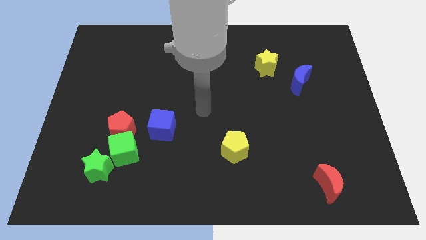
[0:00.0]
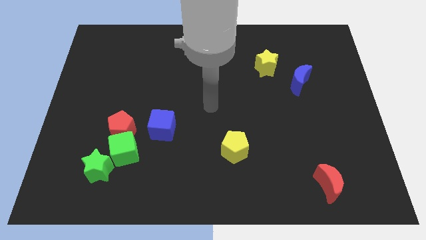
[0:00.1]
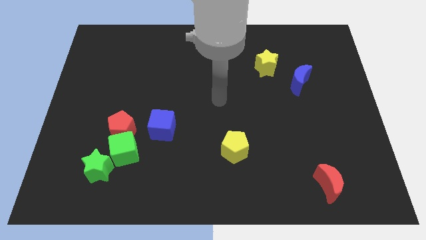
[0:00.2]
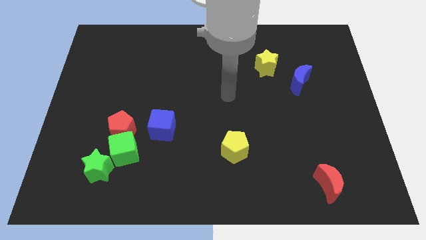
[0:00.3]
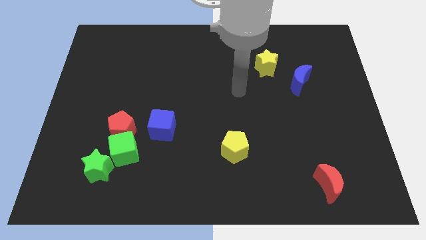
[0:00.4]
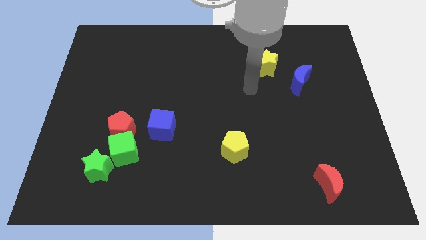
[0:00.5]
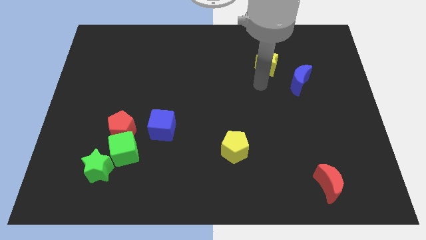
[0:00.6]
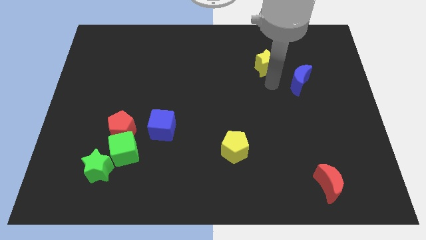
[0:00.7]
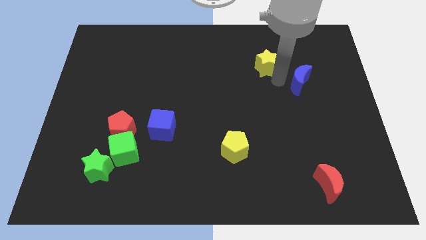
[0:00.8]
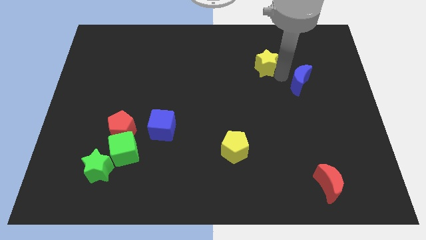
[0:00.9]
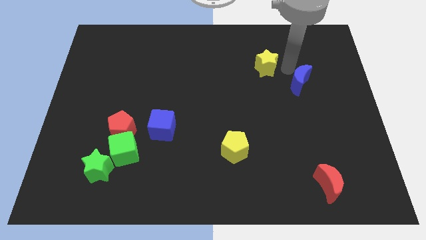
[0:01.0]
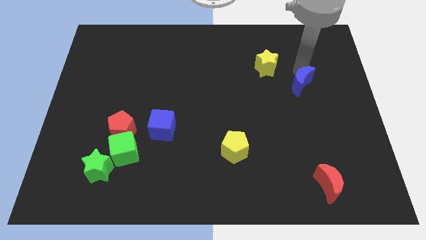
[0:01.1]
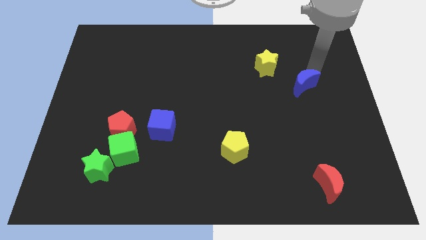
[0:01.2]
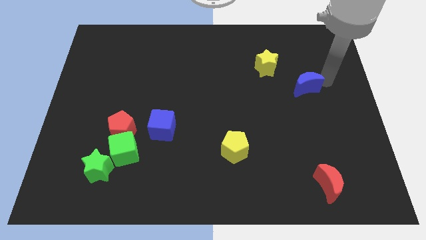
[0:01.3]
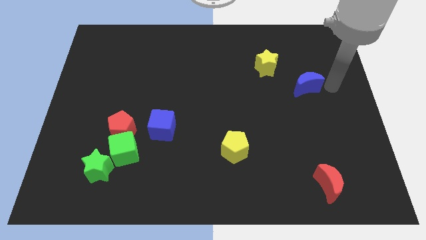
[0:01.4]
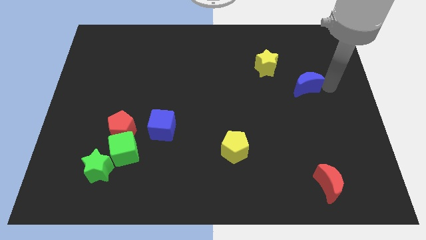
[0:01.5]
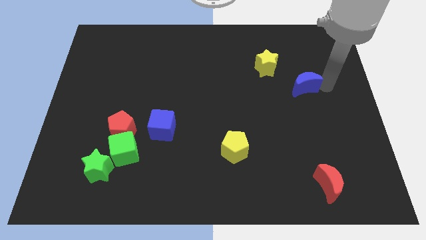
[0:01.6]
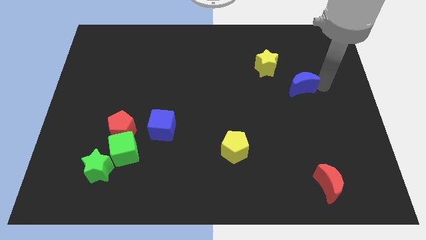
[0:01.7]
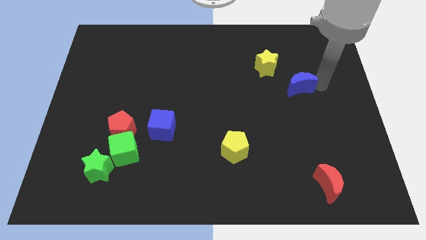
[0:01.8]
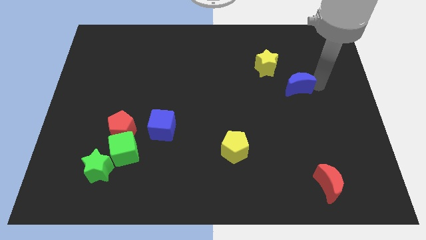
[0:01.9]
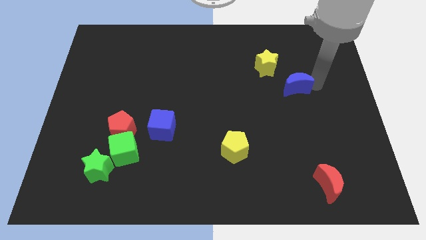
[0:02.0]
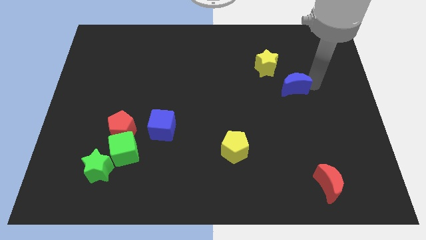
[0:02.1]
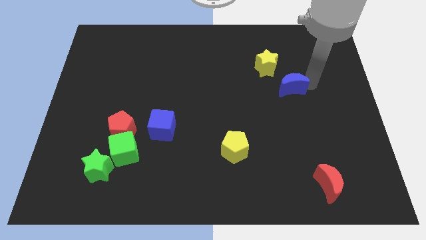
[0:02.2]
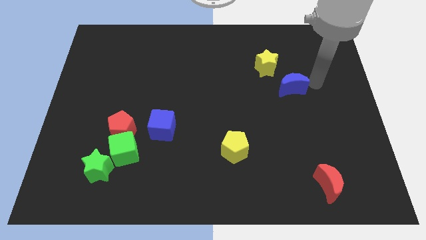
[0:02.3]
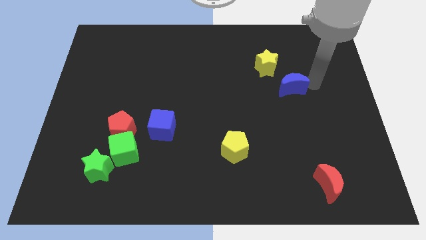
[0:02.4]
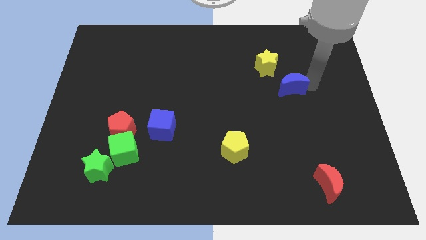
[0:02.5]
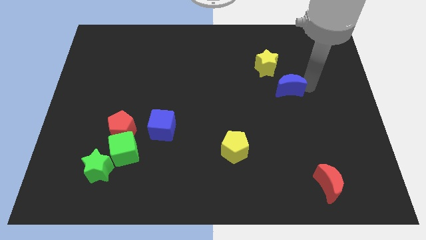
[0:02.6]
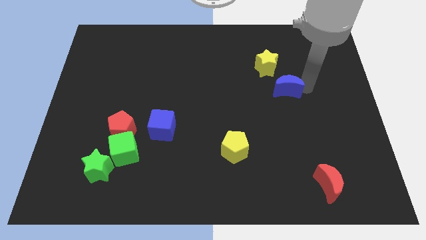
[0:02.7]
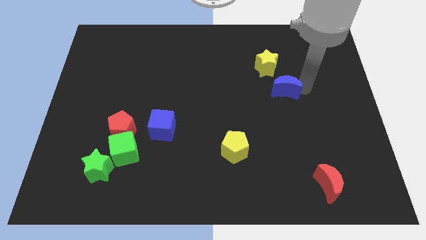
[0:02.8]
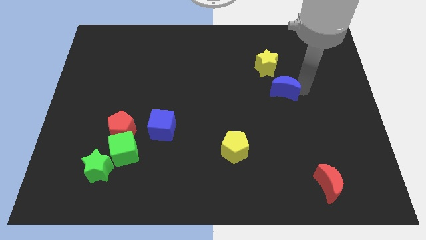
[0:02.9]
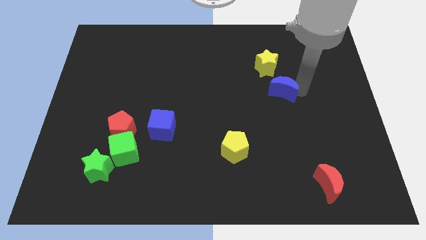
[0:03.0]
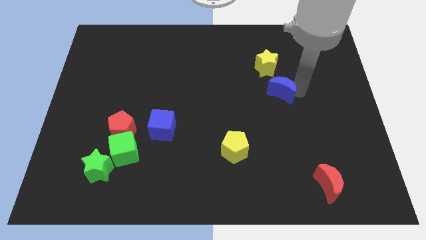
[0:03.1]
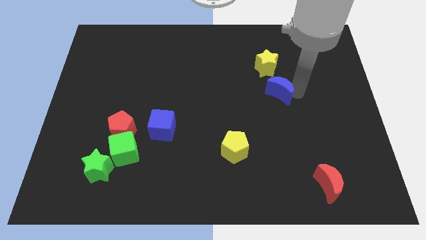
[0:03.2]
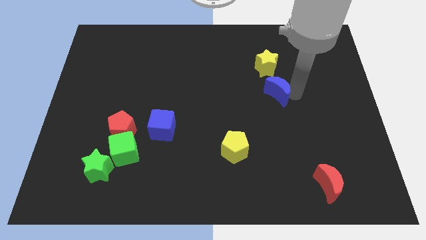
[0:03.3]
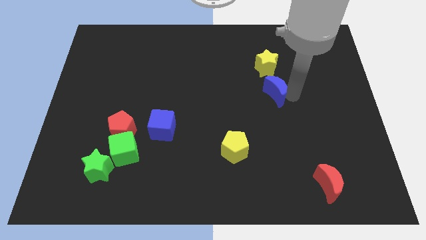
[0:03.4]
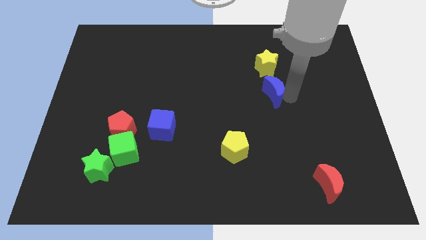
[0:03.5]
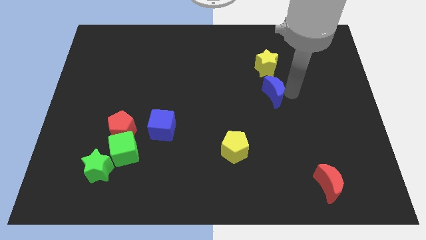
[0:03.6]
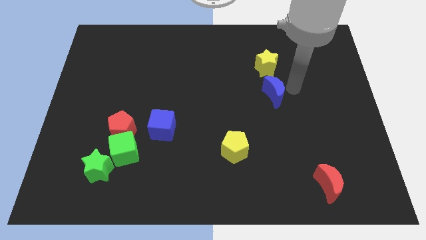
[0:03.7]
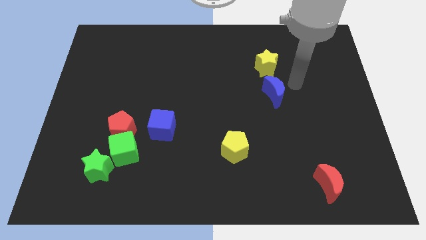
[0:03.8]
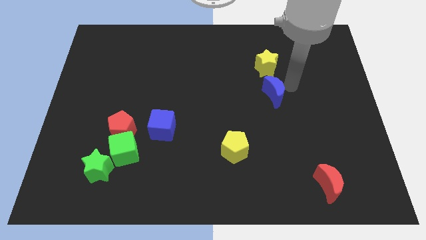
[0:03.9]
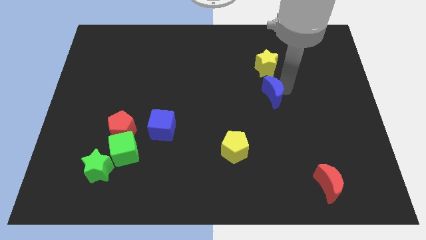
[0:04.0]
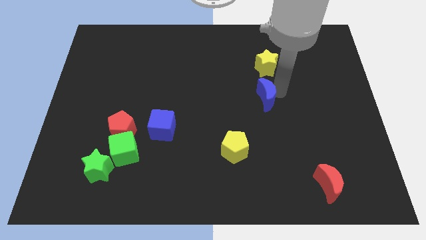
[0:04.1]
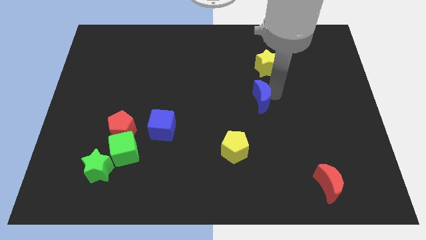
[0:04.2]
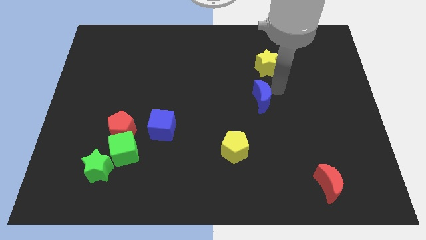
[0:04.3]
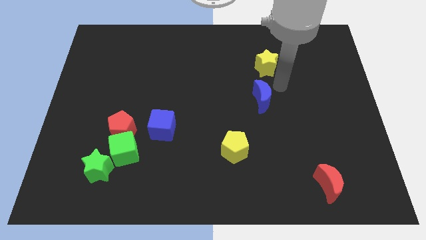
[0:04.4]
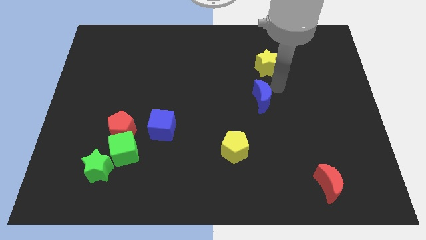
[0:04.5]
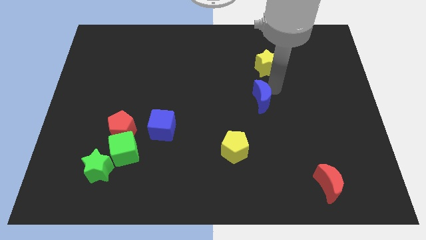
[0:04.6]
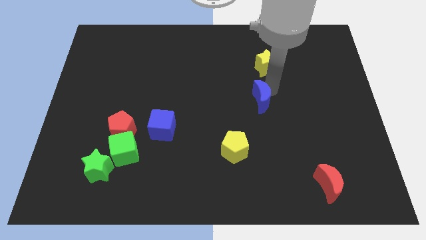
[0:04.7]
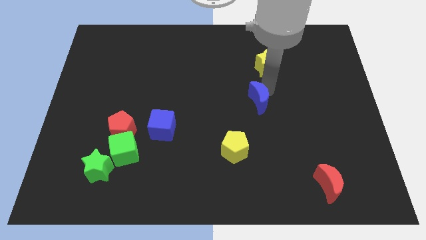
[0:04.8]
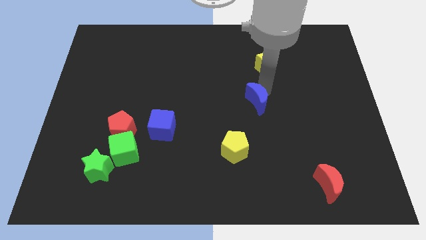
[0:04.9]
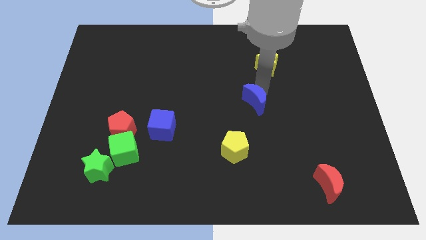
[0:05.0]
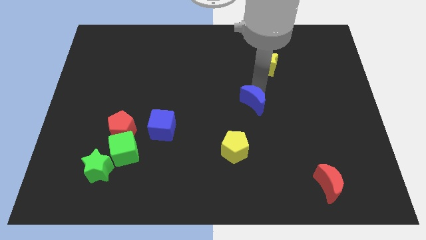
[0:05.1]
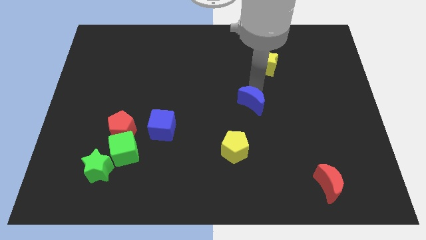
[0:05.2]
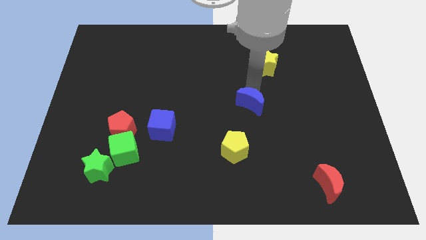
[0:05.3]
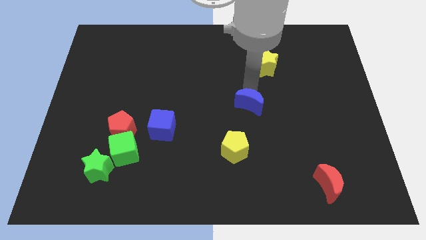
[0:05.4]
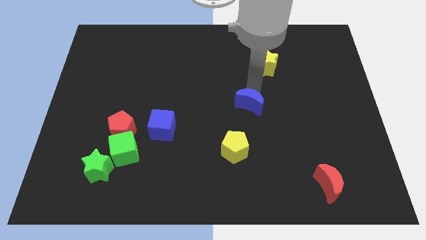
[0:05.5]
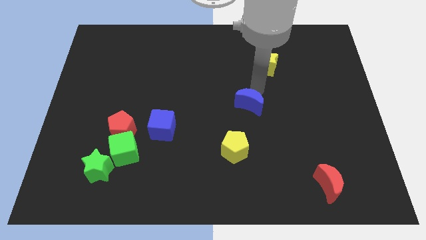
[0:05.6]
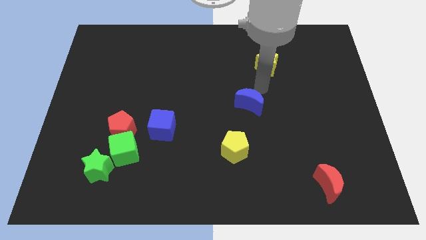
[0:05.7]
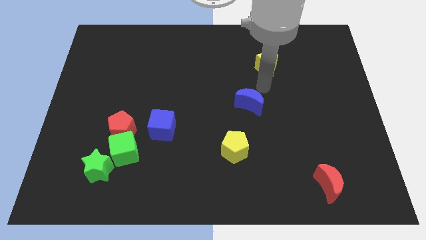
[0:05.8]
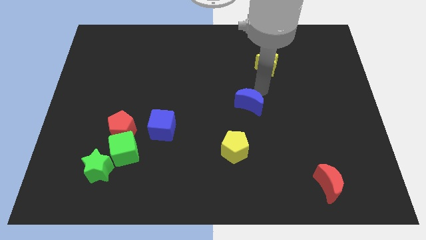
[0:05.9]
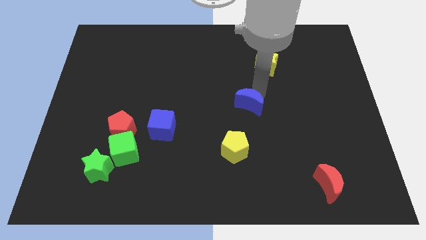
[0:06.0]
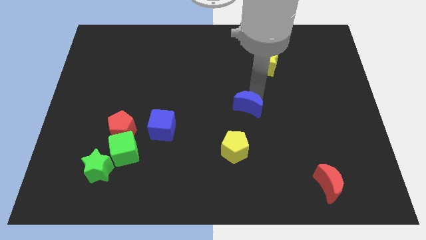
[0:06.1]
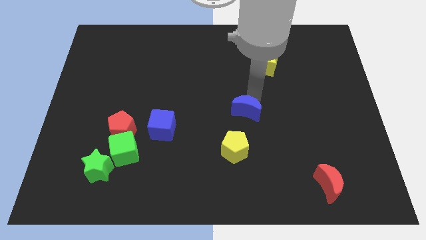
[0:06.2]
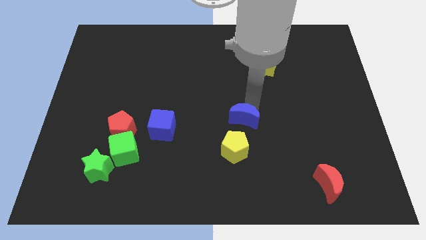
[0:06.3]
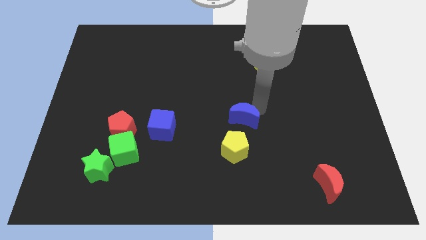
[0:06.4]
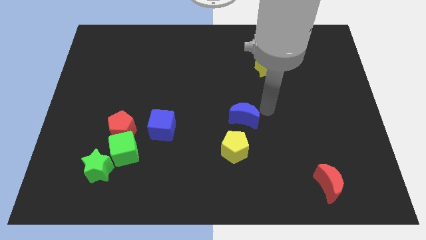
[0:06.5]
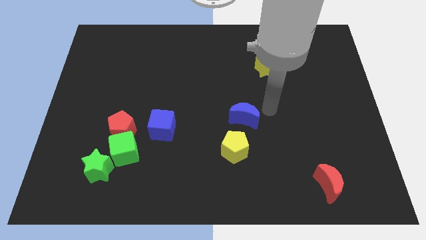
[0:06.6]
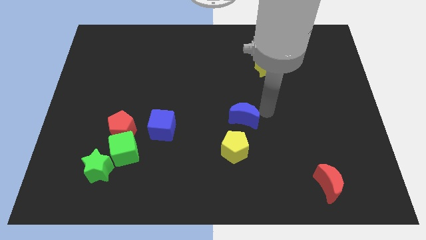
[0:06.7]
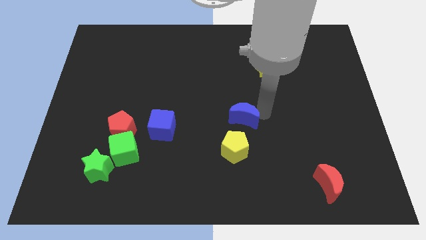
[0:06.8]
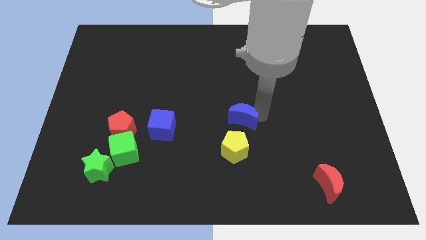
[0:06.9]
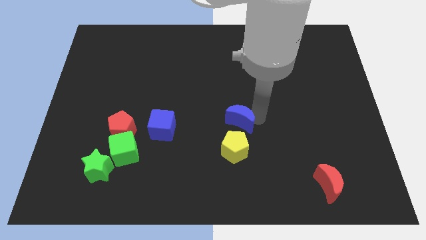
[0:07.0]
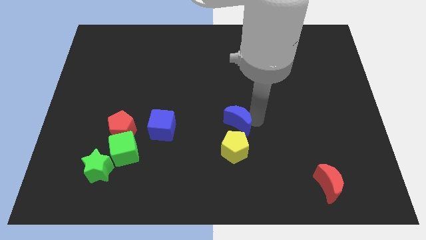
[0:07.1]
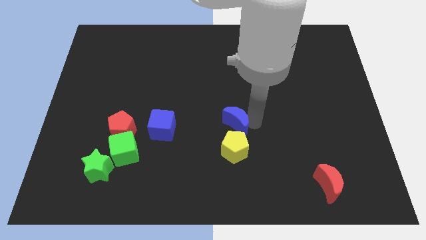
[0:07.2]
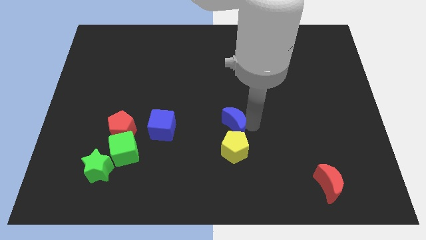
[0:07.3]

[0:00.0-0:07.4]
push the blue moon to the top left side of the yellow pentagon
